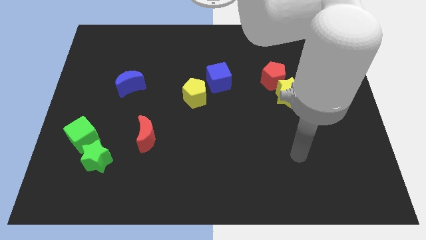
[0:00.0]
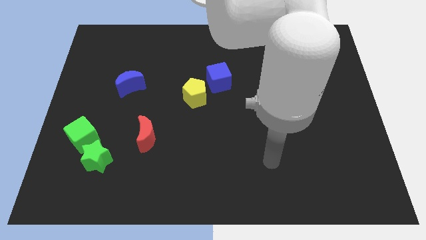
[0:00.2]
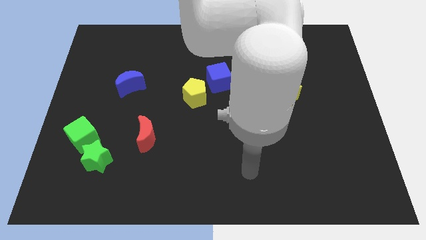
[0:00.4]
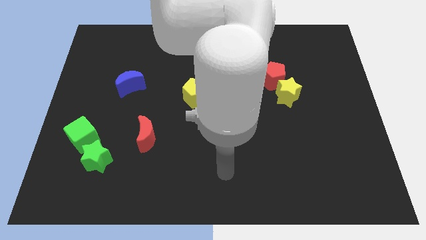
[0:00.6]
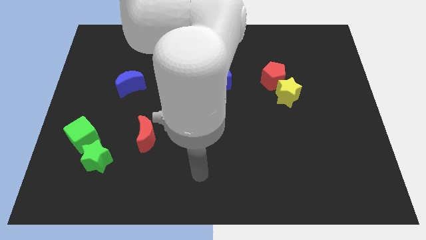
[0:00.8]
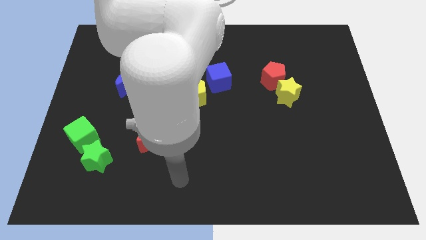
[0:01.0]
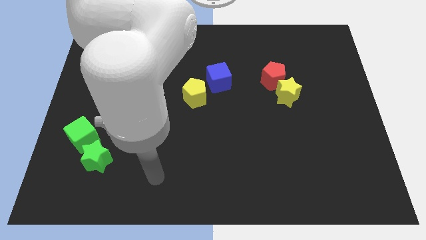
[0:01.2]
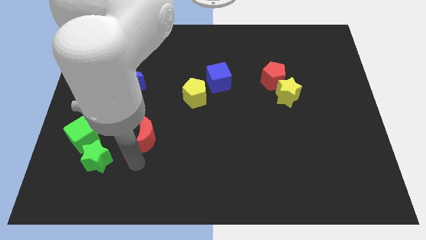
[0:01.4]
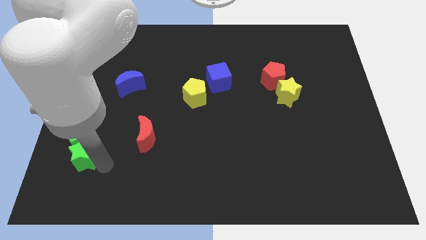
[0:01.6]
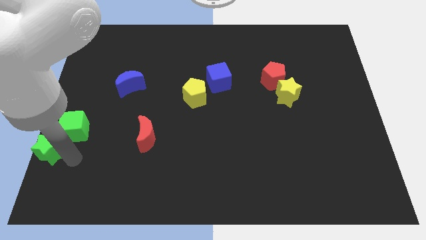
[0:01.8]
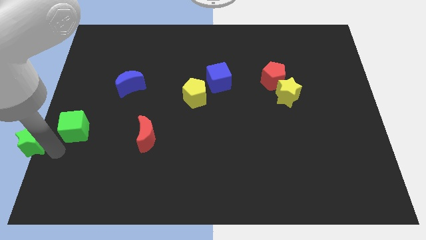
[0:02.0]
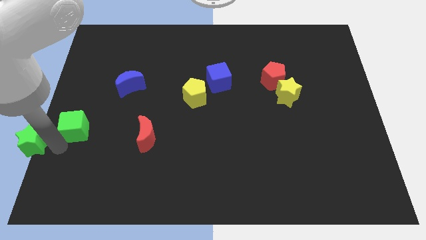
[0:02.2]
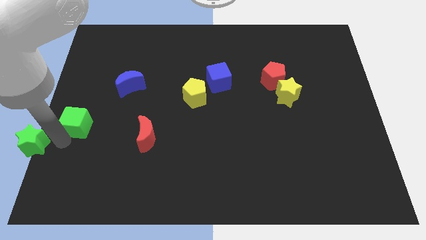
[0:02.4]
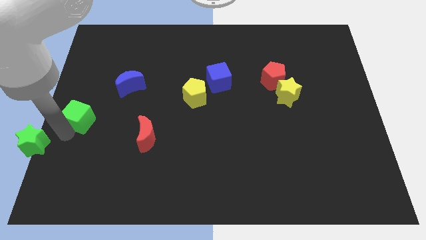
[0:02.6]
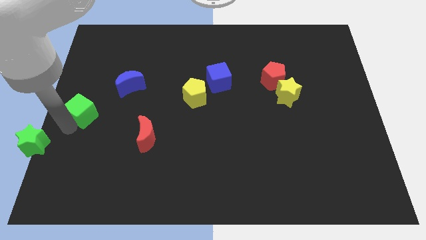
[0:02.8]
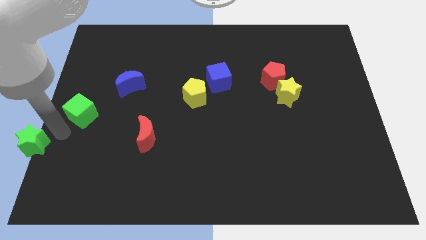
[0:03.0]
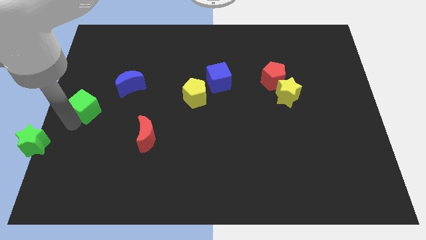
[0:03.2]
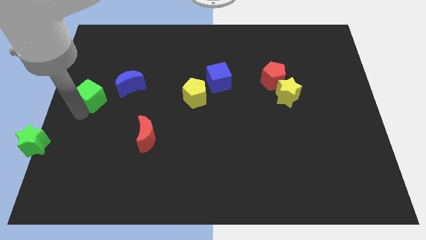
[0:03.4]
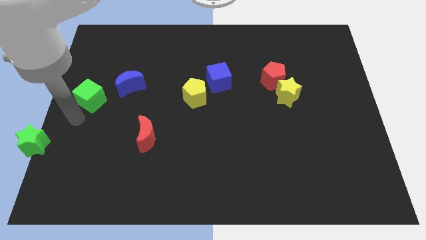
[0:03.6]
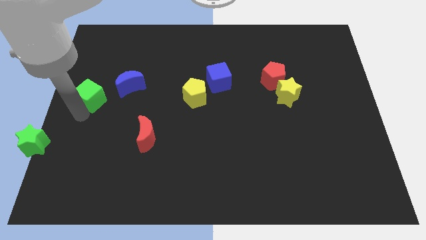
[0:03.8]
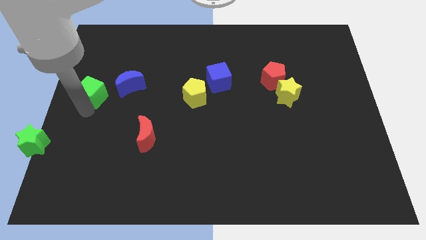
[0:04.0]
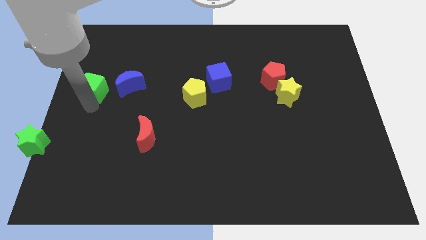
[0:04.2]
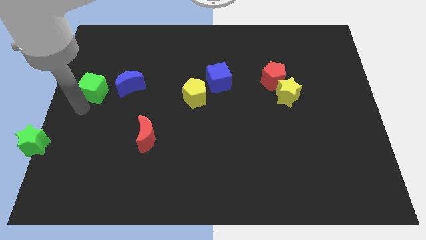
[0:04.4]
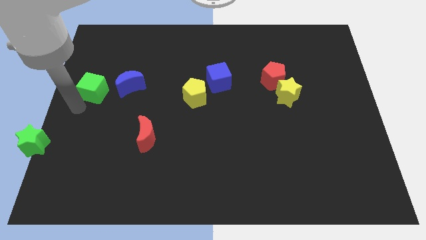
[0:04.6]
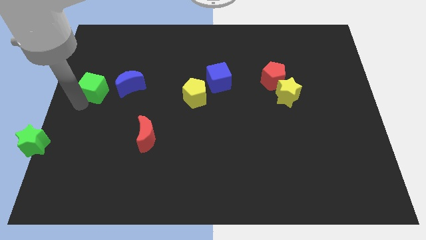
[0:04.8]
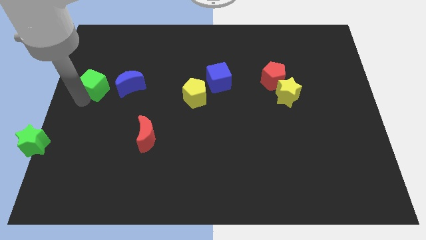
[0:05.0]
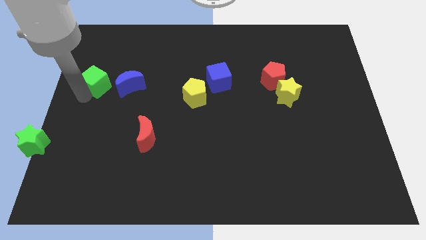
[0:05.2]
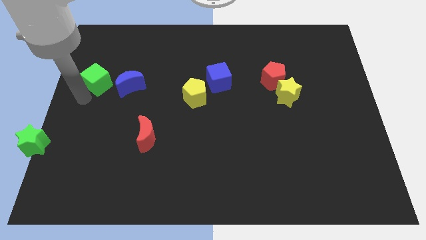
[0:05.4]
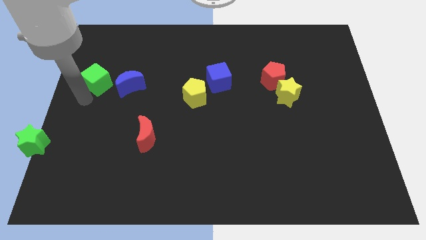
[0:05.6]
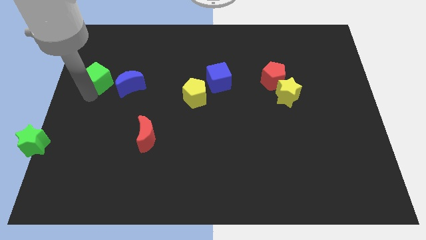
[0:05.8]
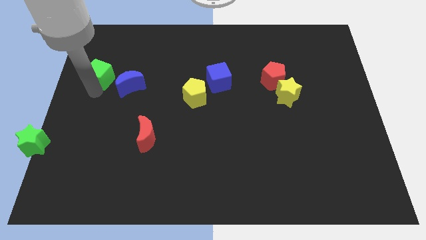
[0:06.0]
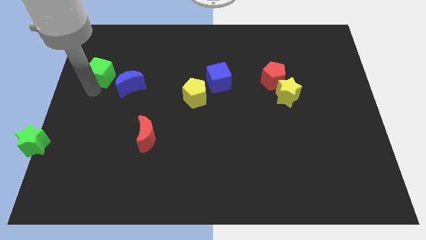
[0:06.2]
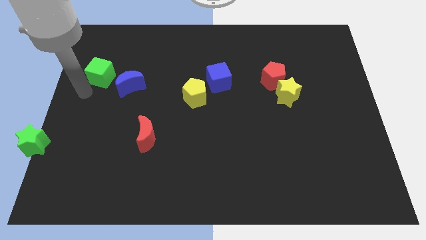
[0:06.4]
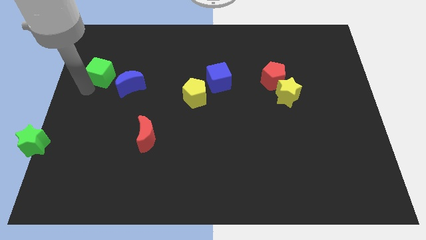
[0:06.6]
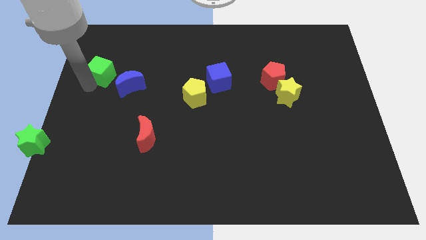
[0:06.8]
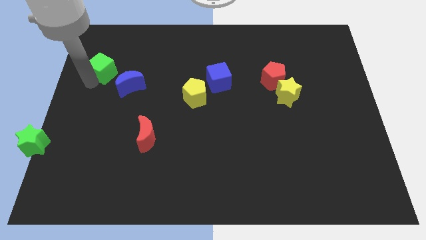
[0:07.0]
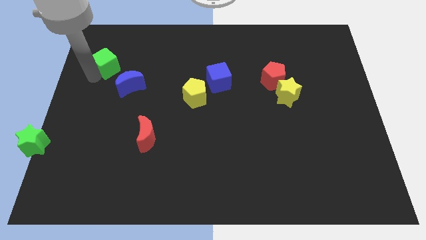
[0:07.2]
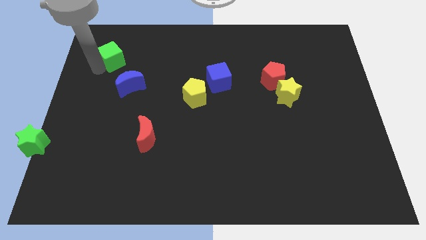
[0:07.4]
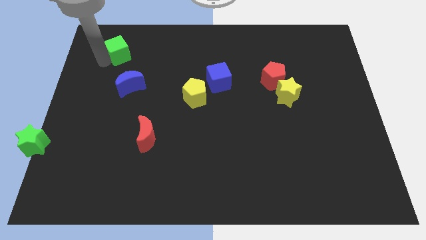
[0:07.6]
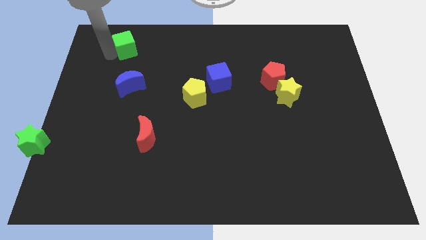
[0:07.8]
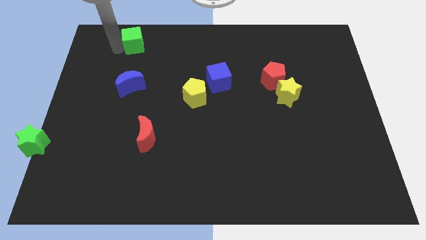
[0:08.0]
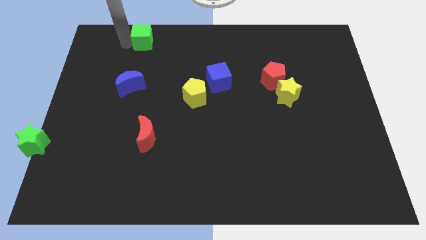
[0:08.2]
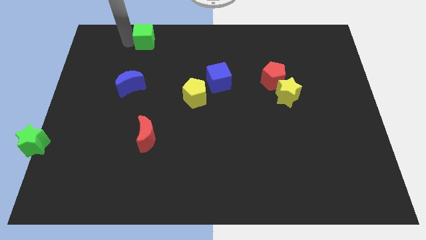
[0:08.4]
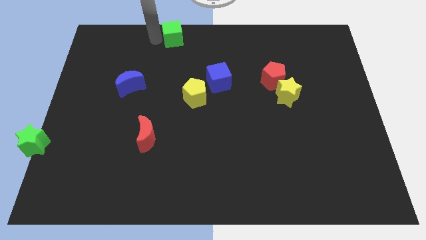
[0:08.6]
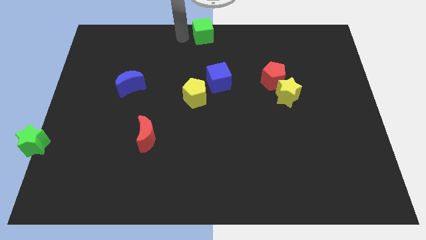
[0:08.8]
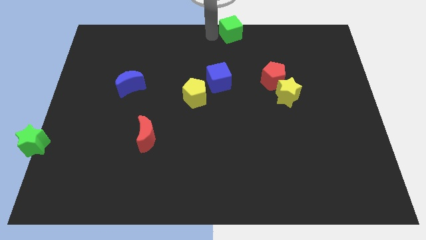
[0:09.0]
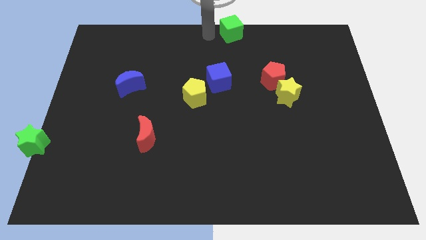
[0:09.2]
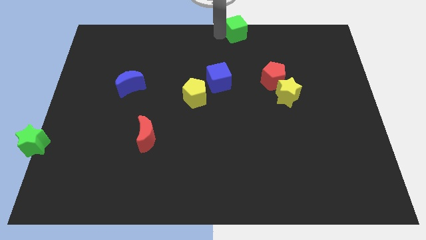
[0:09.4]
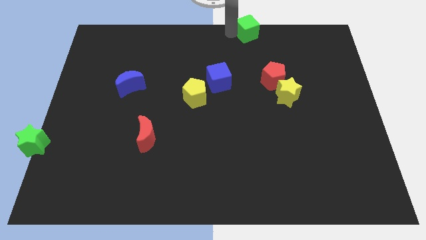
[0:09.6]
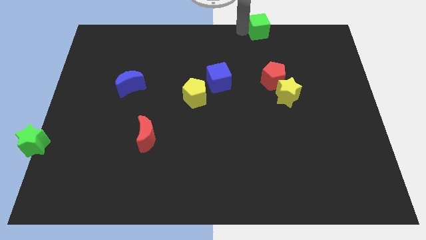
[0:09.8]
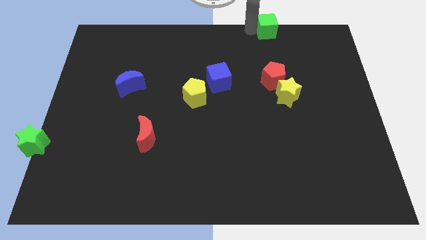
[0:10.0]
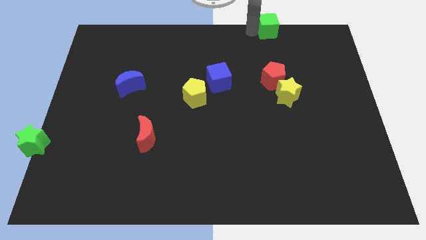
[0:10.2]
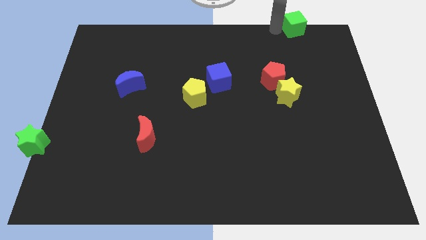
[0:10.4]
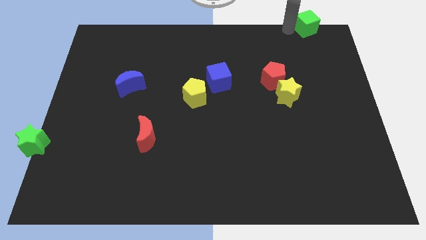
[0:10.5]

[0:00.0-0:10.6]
push the green cube to the top right of the board

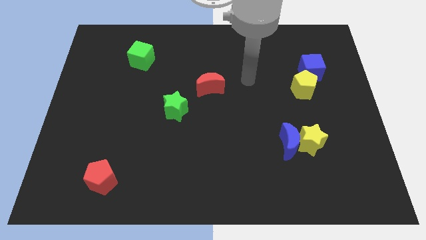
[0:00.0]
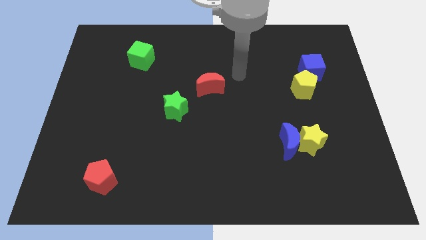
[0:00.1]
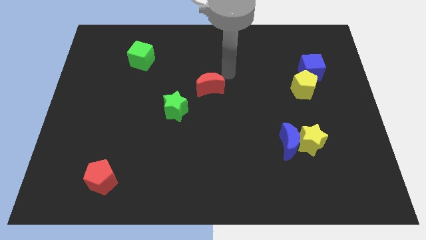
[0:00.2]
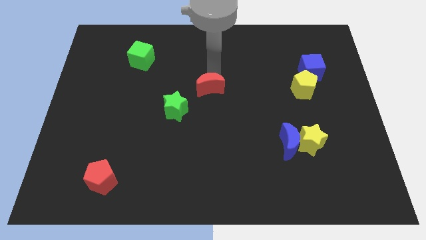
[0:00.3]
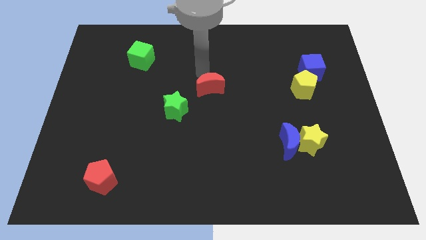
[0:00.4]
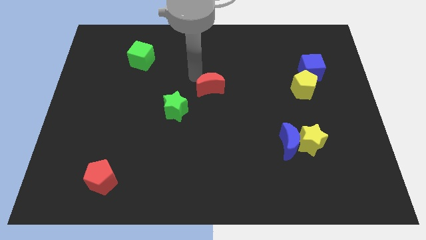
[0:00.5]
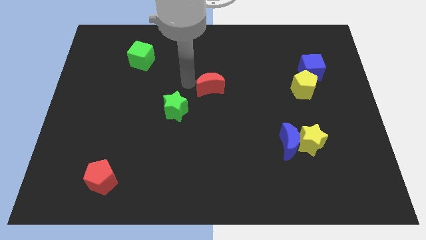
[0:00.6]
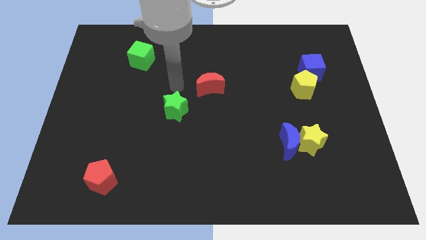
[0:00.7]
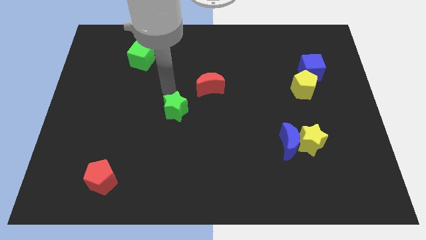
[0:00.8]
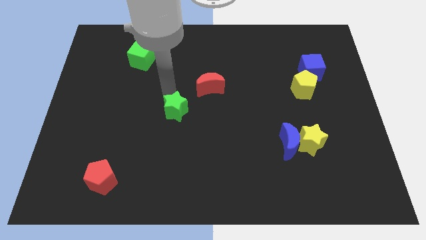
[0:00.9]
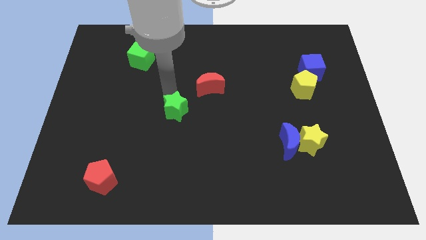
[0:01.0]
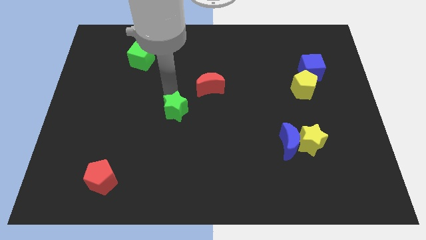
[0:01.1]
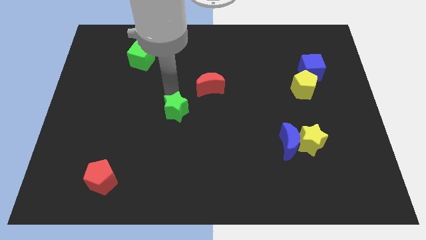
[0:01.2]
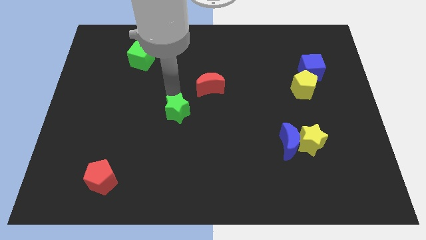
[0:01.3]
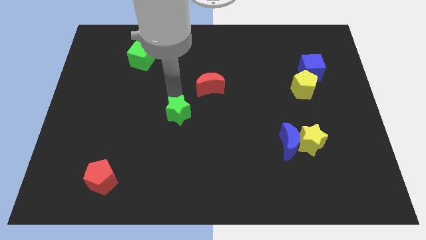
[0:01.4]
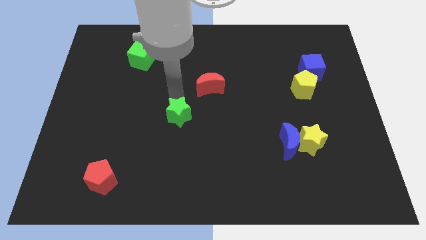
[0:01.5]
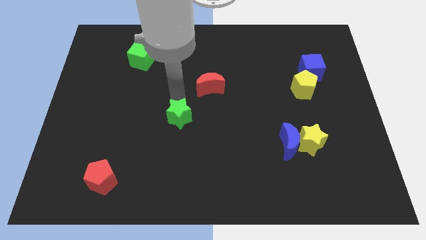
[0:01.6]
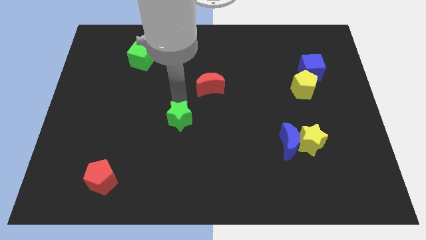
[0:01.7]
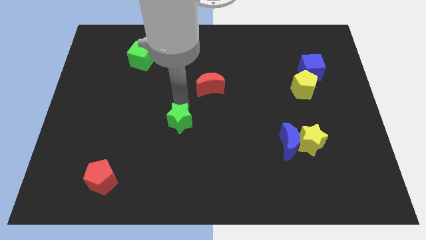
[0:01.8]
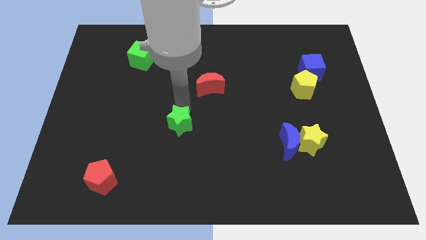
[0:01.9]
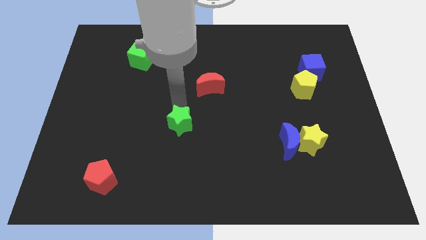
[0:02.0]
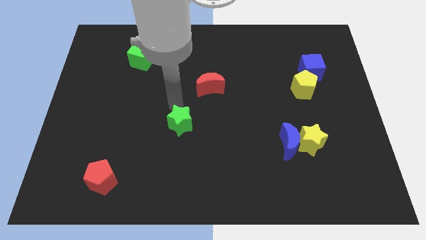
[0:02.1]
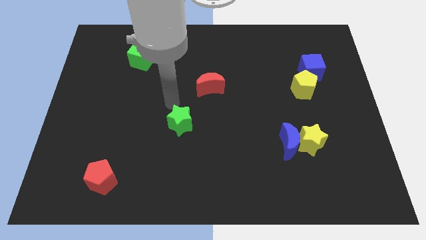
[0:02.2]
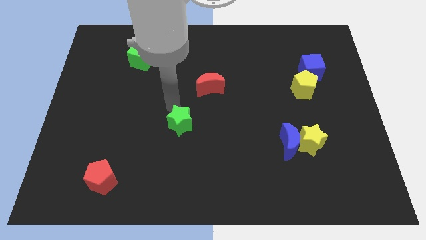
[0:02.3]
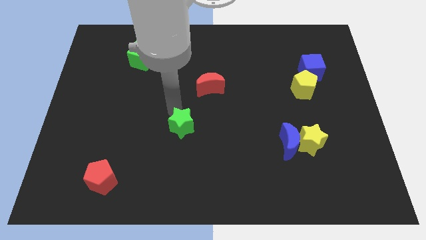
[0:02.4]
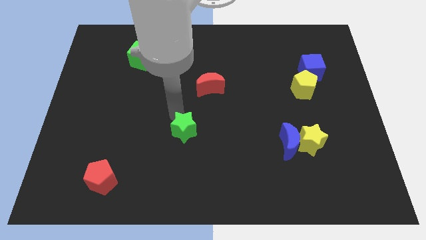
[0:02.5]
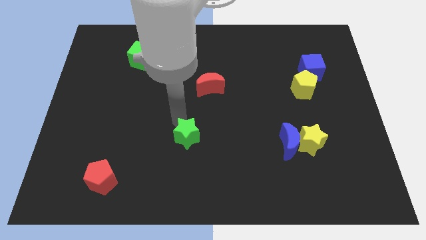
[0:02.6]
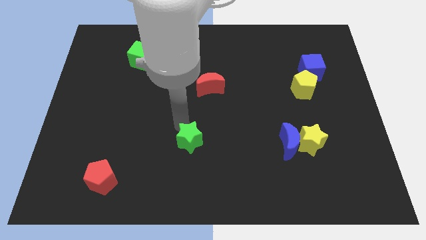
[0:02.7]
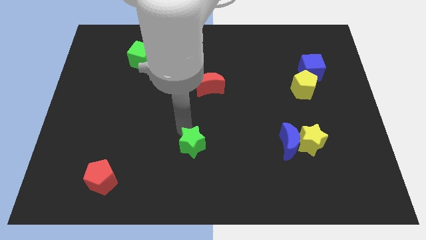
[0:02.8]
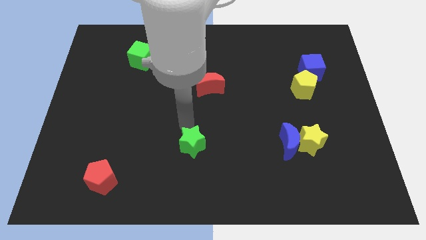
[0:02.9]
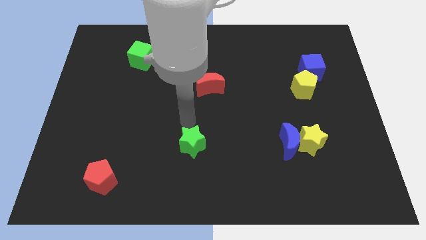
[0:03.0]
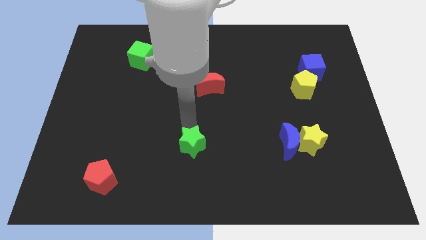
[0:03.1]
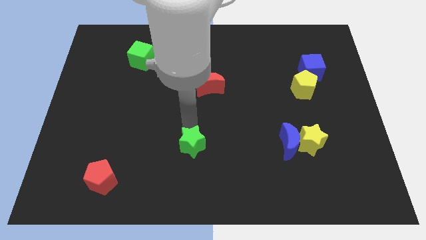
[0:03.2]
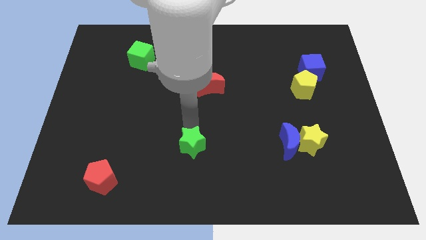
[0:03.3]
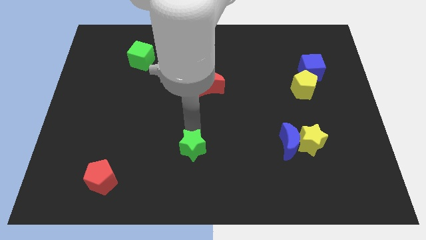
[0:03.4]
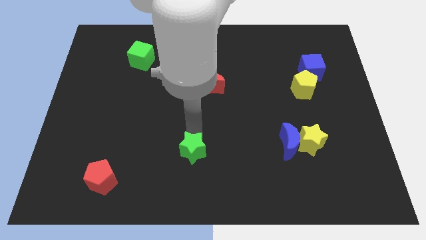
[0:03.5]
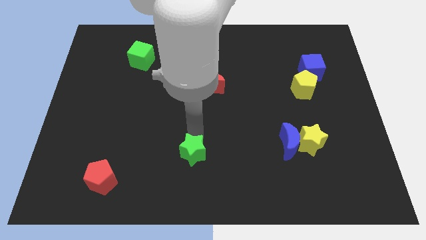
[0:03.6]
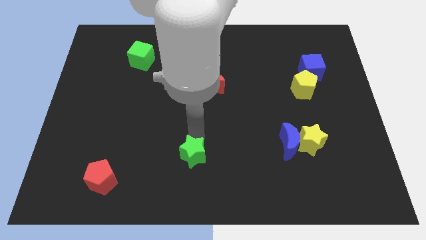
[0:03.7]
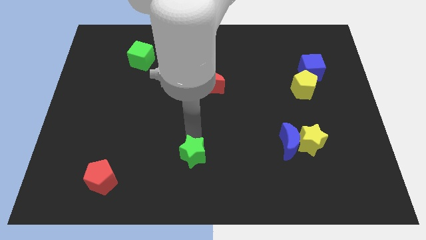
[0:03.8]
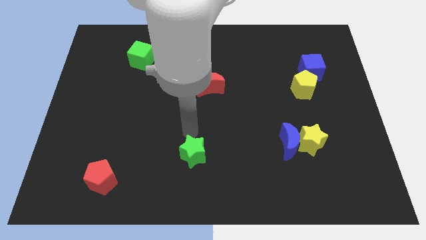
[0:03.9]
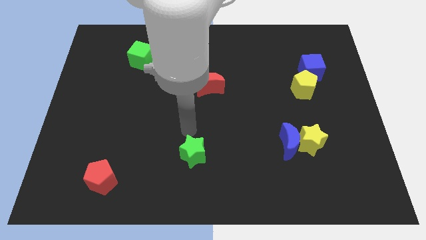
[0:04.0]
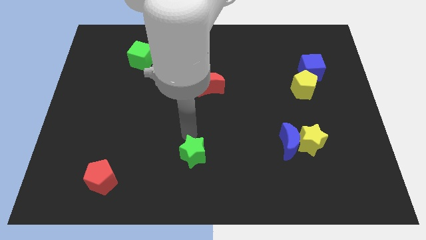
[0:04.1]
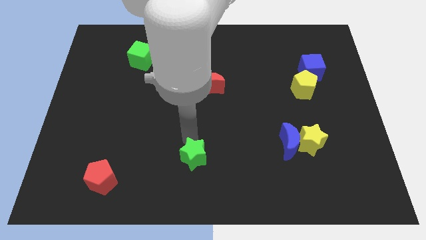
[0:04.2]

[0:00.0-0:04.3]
push the green star to the bottom side
